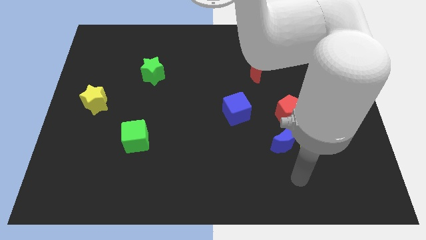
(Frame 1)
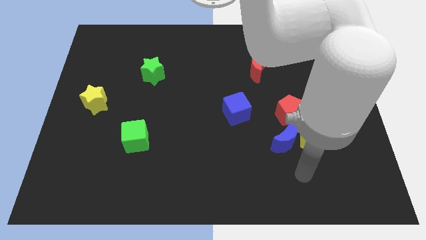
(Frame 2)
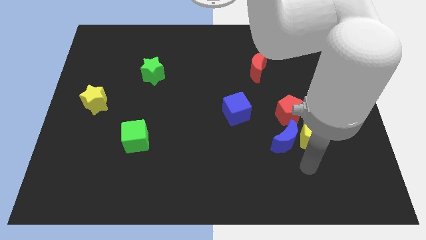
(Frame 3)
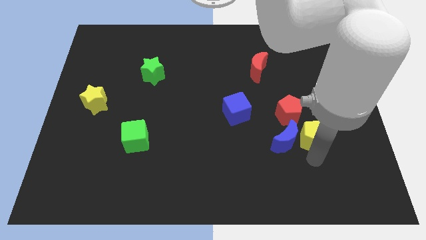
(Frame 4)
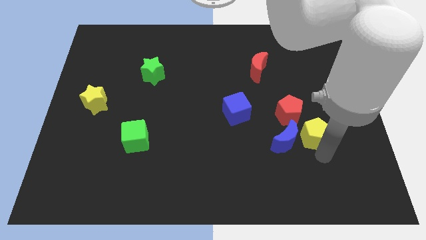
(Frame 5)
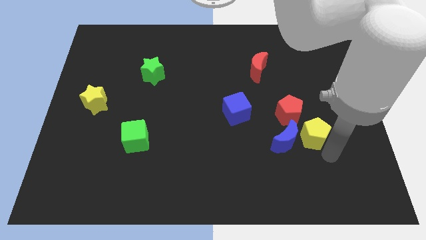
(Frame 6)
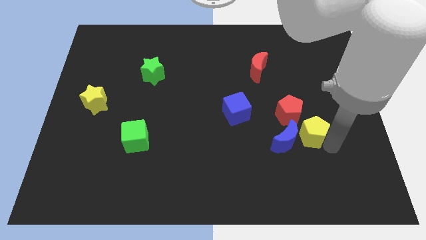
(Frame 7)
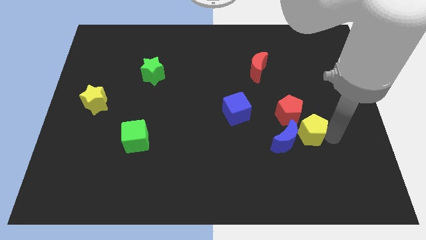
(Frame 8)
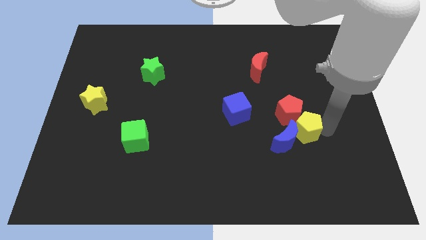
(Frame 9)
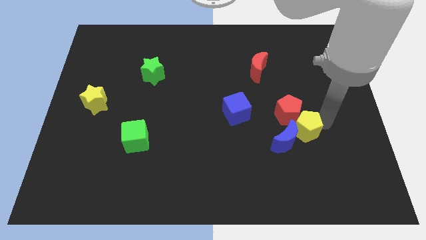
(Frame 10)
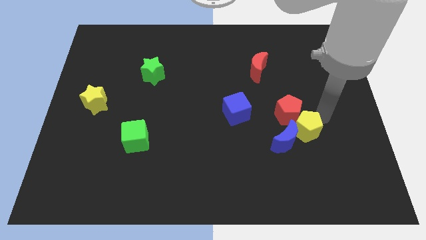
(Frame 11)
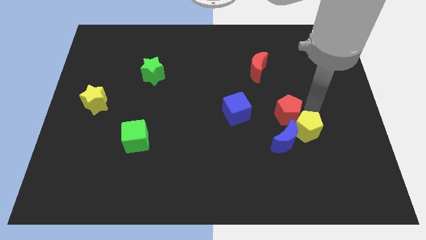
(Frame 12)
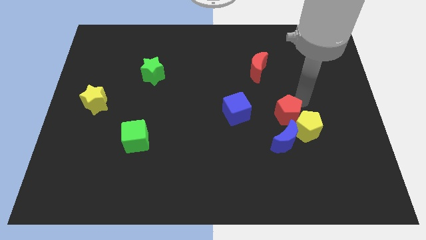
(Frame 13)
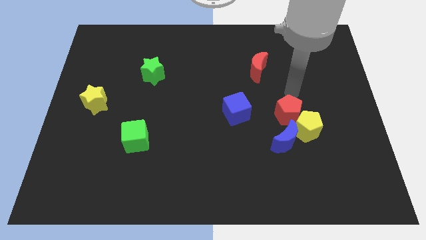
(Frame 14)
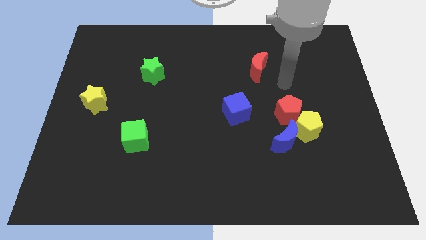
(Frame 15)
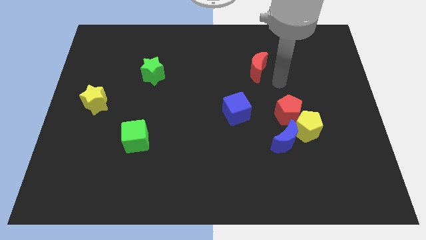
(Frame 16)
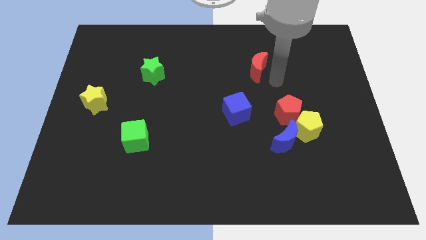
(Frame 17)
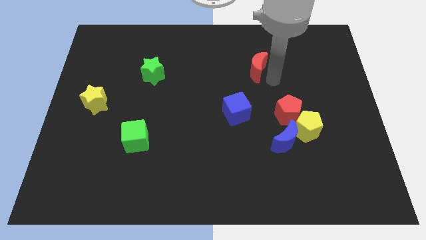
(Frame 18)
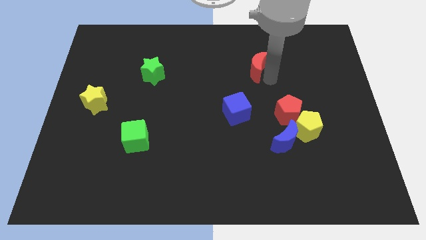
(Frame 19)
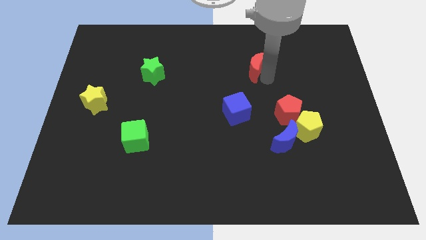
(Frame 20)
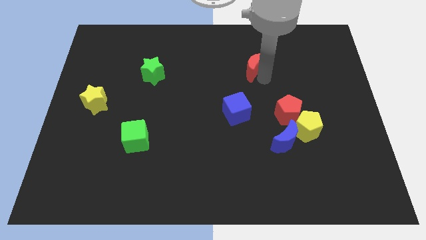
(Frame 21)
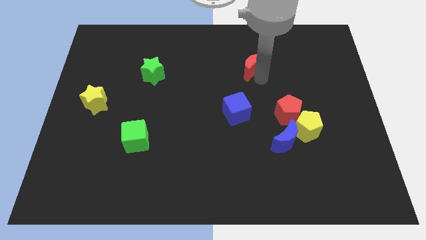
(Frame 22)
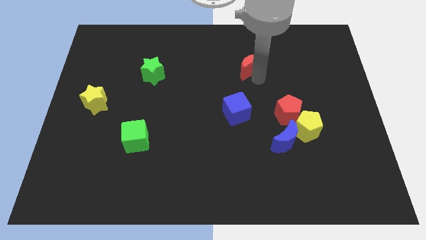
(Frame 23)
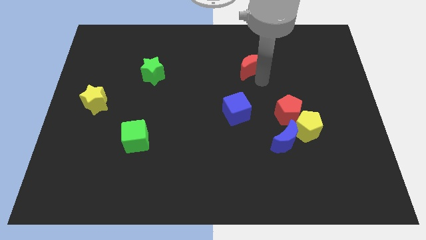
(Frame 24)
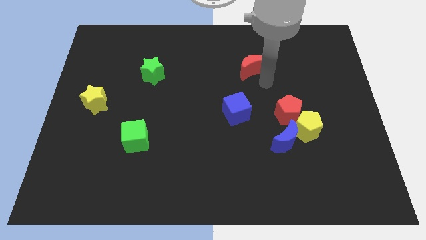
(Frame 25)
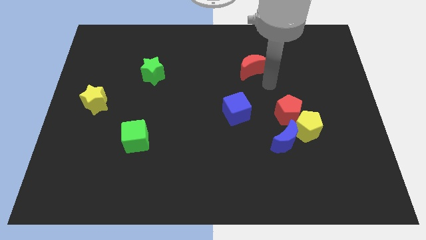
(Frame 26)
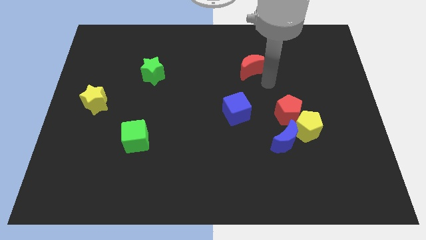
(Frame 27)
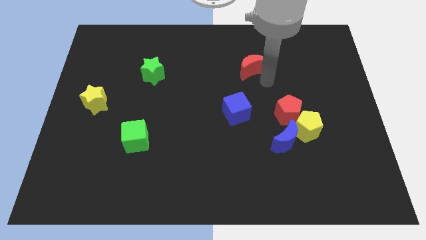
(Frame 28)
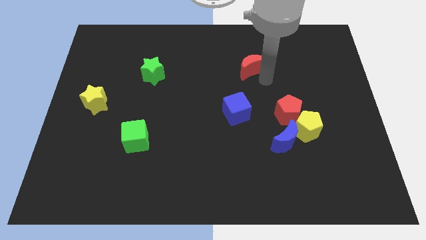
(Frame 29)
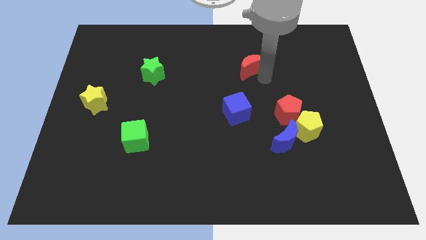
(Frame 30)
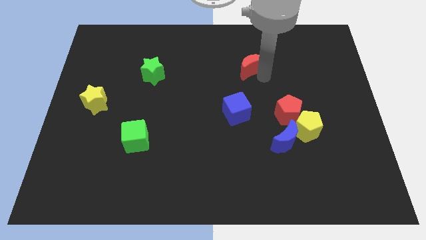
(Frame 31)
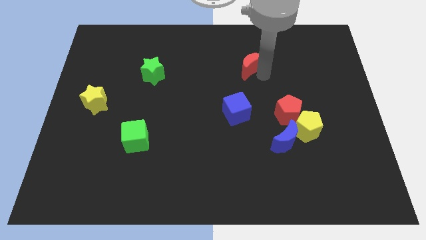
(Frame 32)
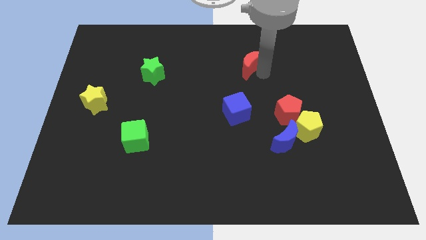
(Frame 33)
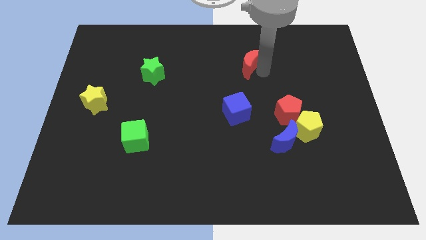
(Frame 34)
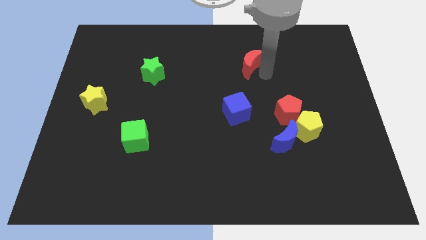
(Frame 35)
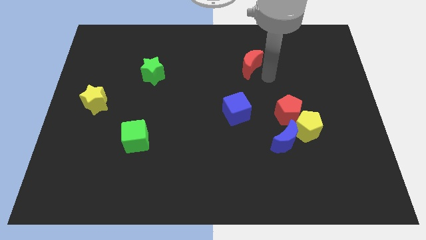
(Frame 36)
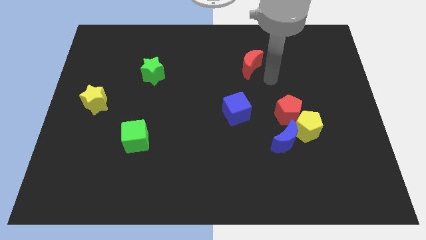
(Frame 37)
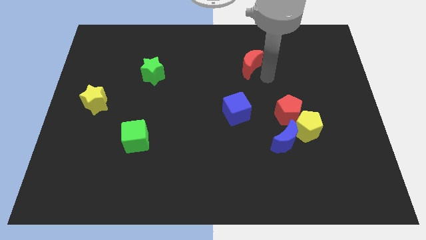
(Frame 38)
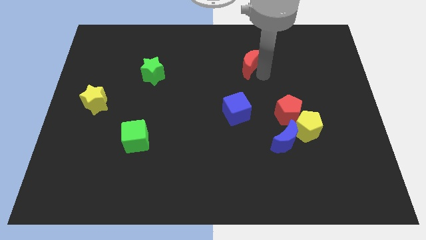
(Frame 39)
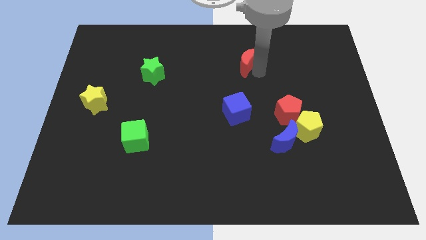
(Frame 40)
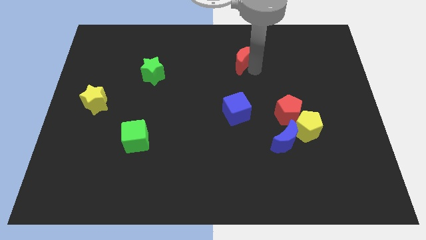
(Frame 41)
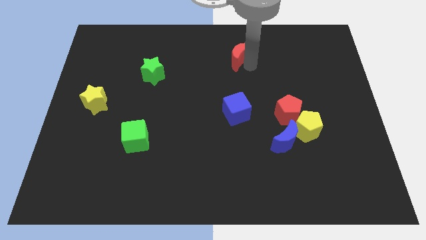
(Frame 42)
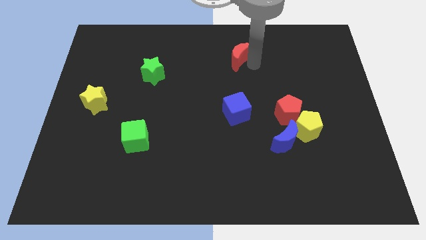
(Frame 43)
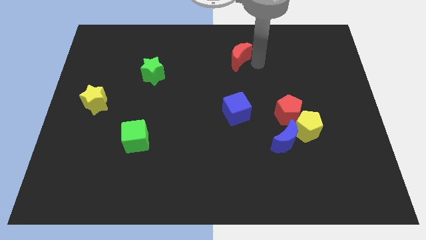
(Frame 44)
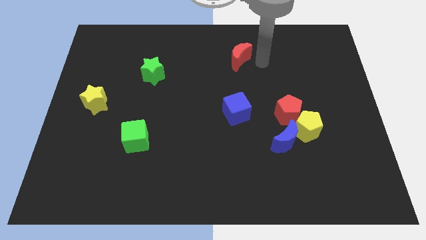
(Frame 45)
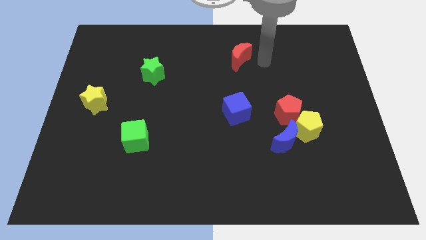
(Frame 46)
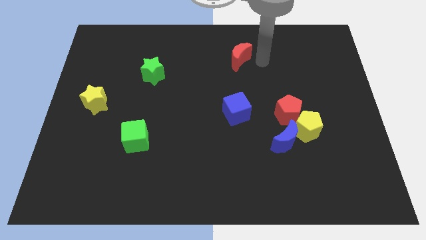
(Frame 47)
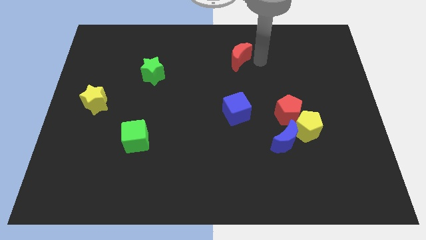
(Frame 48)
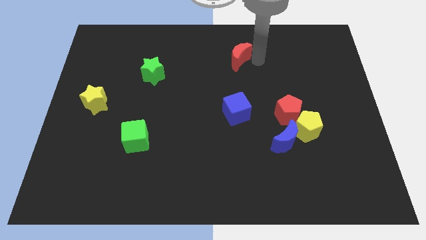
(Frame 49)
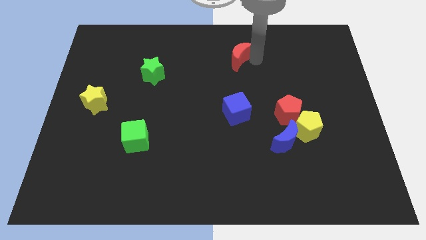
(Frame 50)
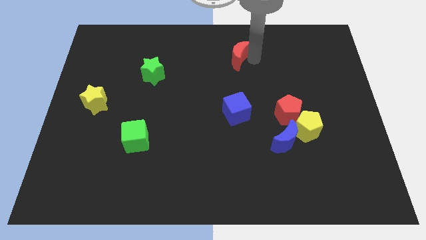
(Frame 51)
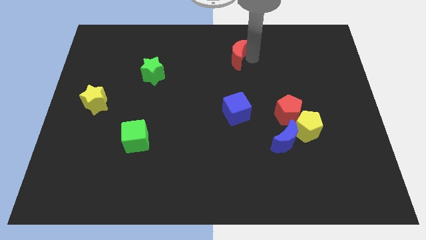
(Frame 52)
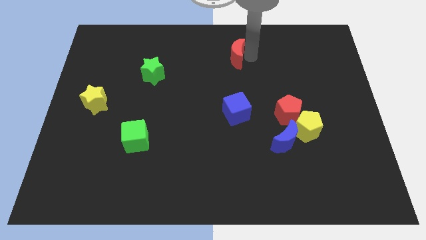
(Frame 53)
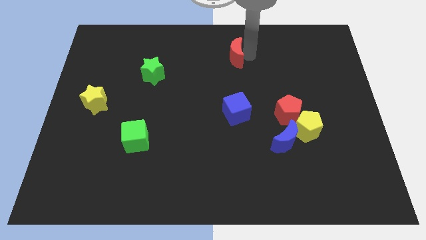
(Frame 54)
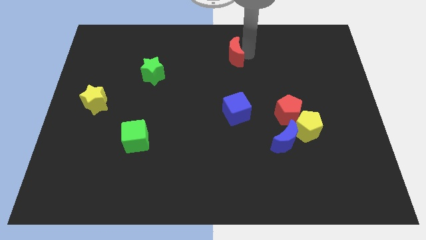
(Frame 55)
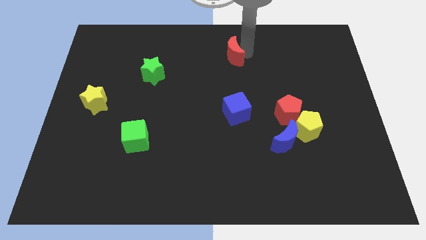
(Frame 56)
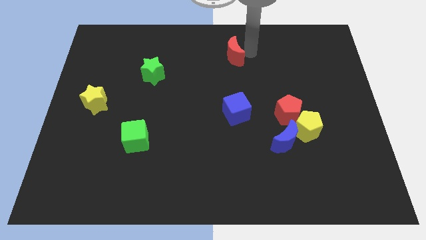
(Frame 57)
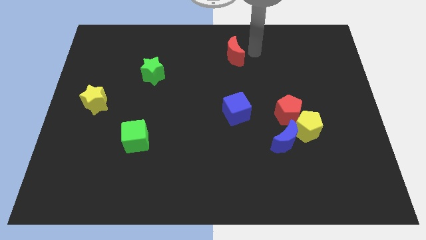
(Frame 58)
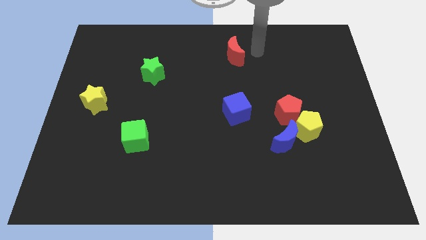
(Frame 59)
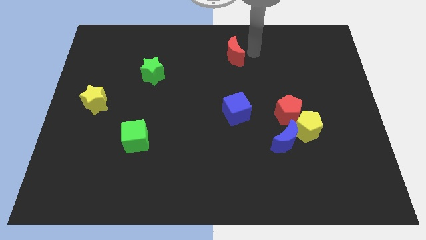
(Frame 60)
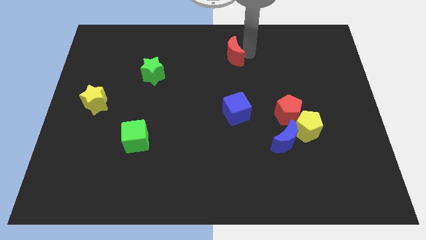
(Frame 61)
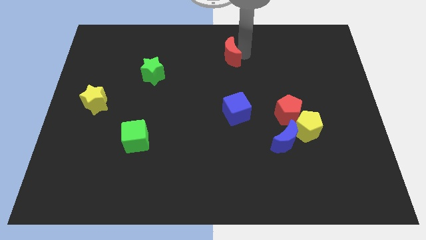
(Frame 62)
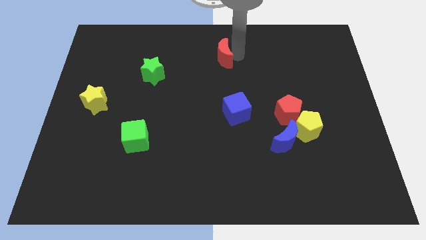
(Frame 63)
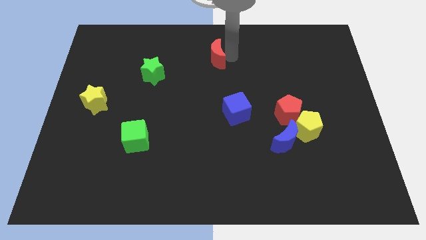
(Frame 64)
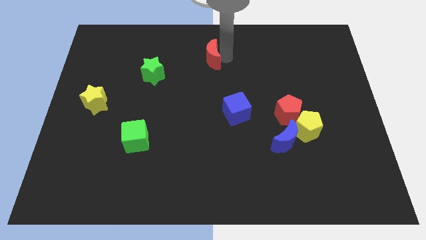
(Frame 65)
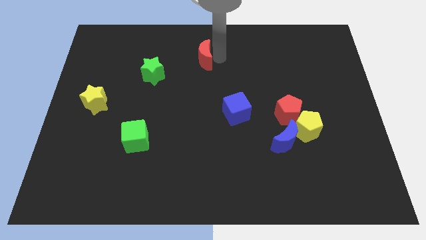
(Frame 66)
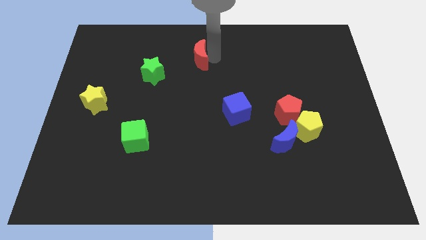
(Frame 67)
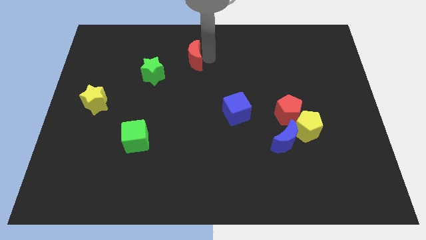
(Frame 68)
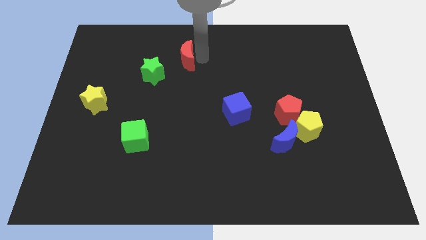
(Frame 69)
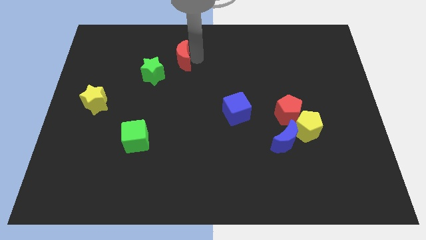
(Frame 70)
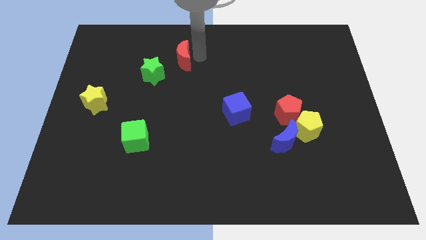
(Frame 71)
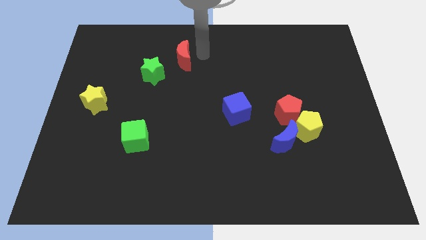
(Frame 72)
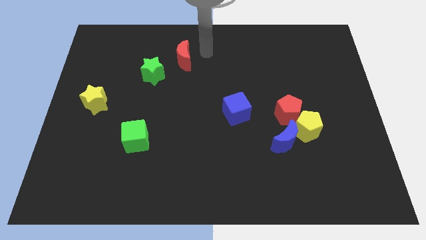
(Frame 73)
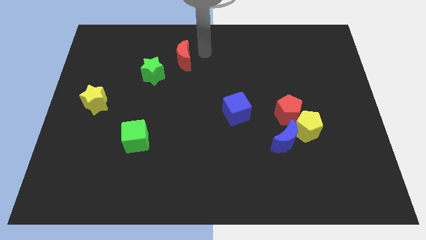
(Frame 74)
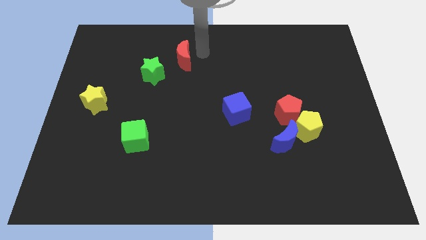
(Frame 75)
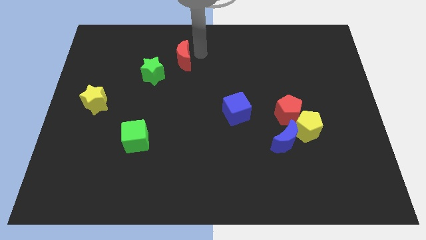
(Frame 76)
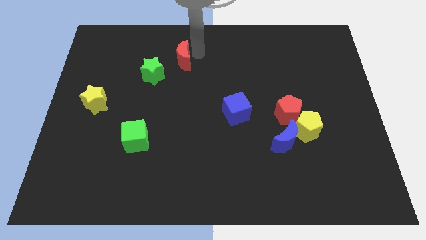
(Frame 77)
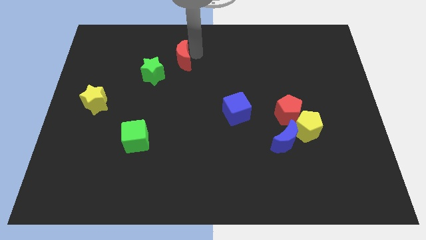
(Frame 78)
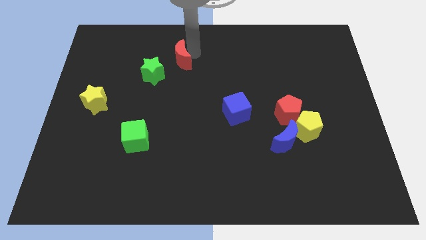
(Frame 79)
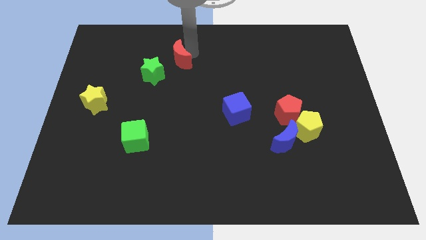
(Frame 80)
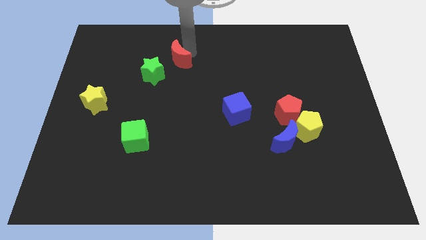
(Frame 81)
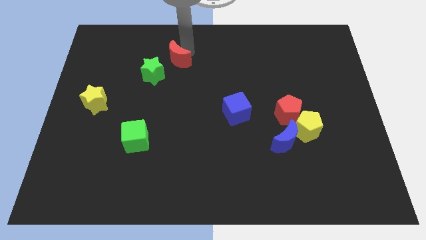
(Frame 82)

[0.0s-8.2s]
slide the red moon left
